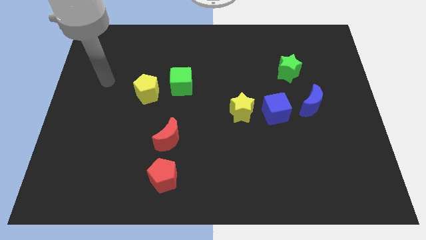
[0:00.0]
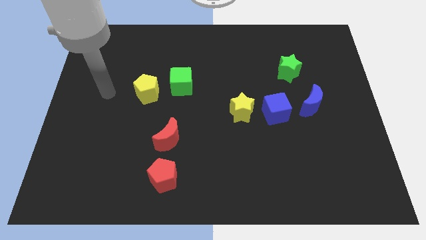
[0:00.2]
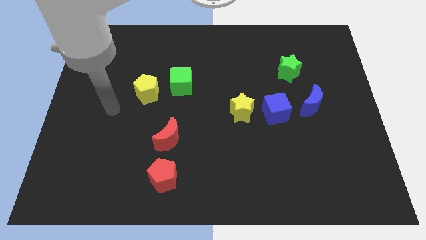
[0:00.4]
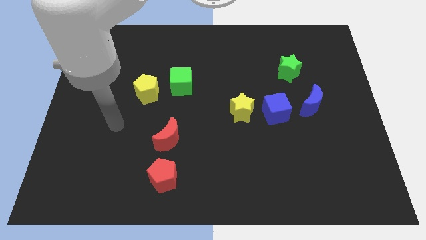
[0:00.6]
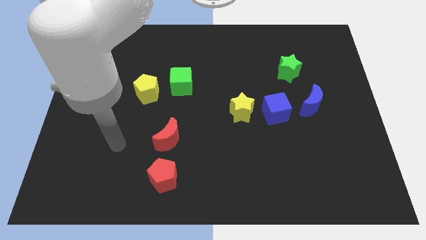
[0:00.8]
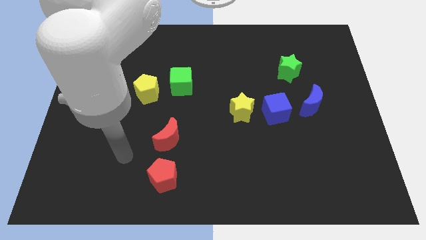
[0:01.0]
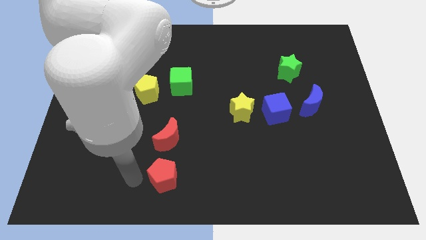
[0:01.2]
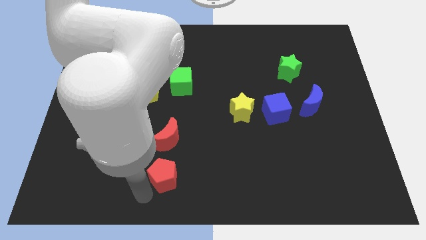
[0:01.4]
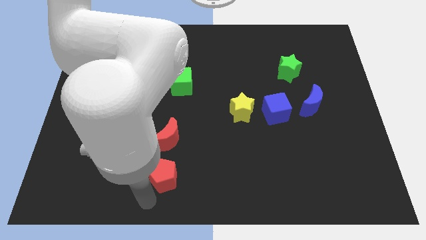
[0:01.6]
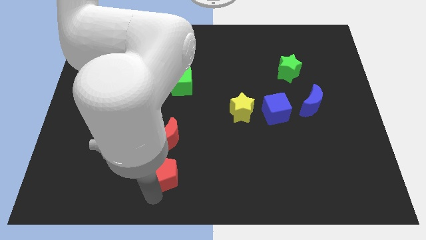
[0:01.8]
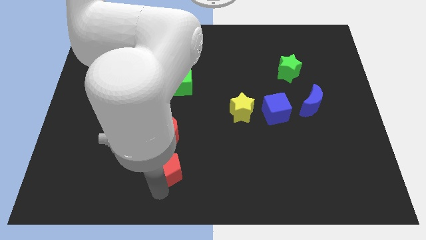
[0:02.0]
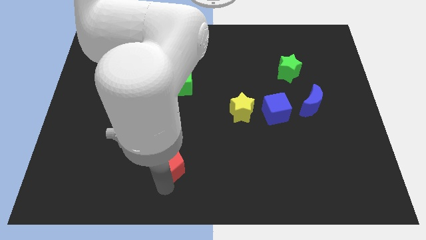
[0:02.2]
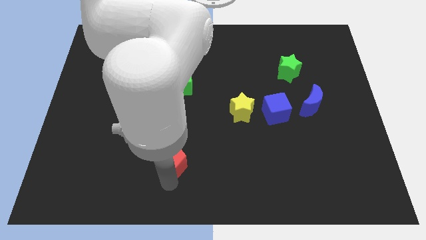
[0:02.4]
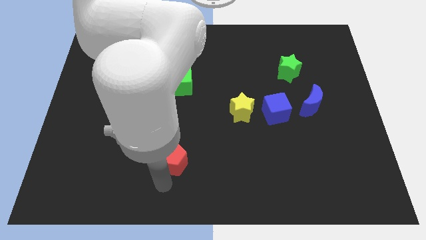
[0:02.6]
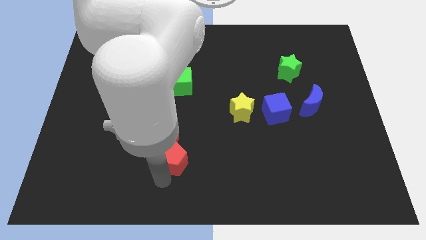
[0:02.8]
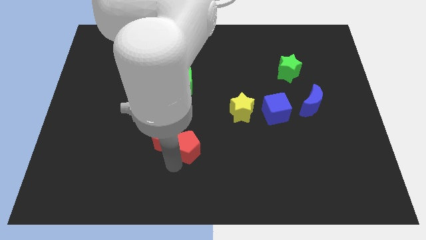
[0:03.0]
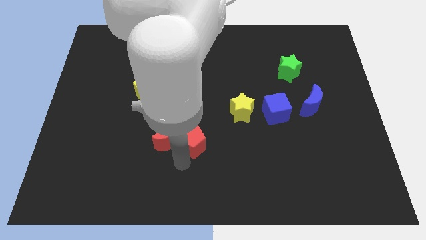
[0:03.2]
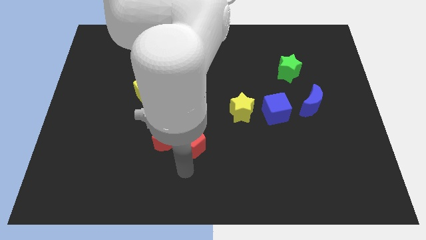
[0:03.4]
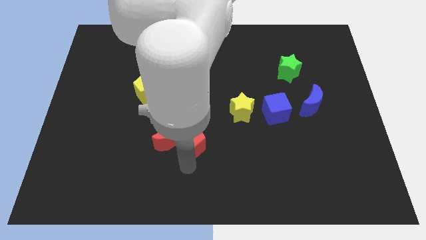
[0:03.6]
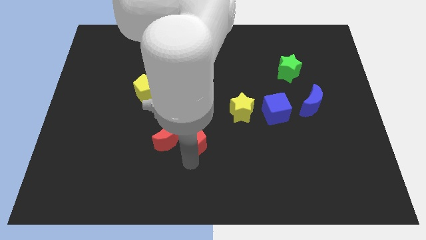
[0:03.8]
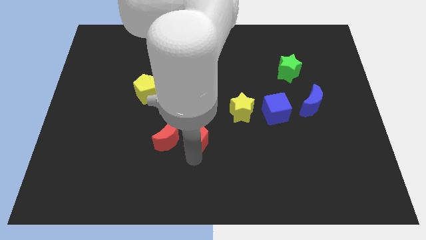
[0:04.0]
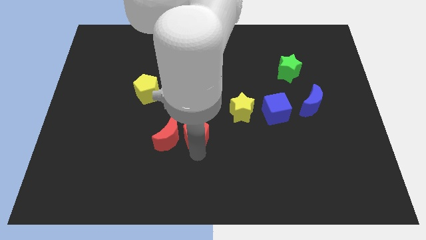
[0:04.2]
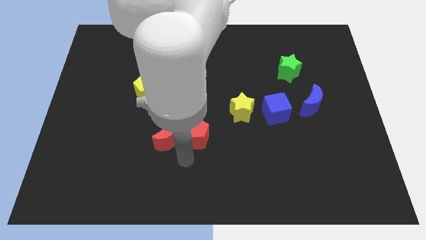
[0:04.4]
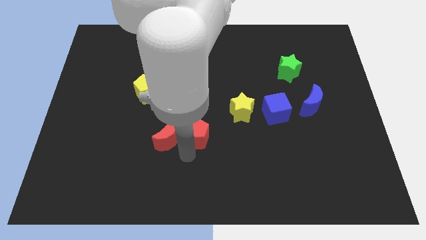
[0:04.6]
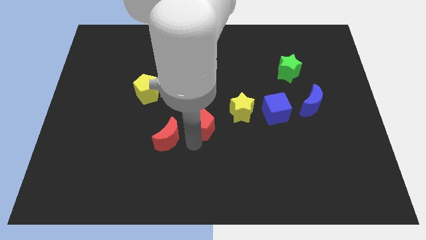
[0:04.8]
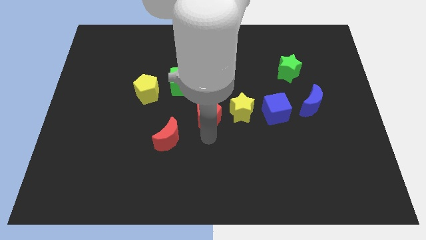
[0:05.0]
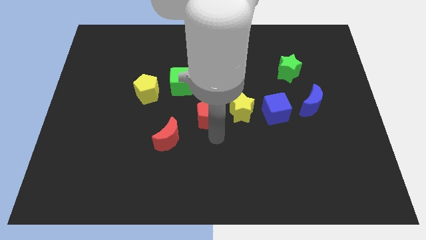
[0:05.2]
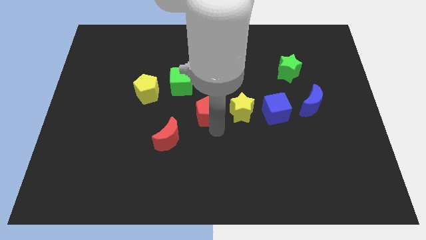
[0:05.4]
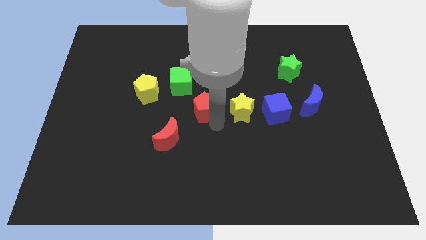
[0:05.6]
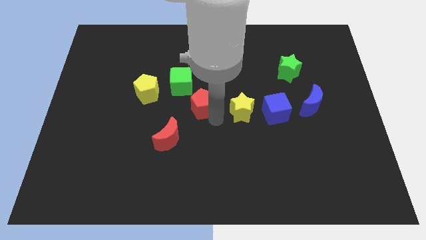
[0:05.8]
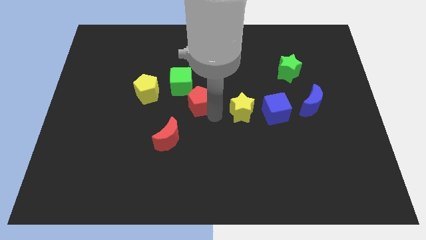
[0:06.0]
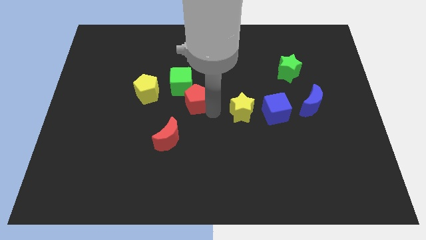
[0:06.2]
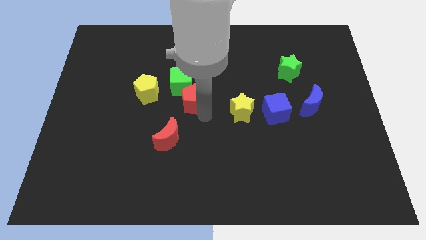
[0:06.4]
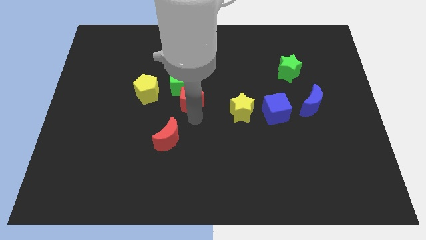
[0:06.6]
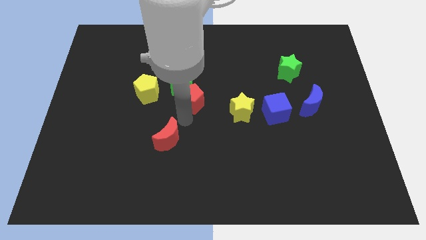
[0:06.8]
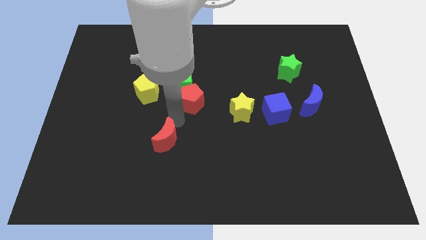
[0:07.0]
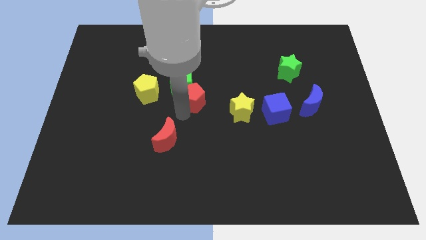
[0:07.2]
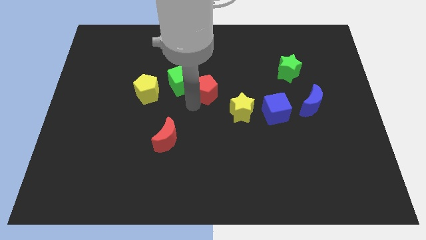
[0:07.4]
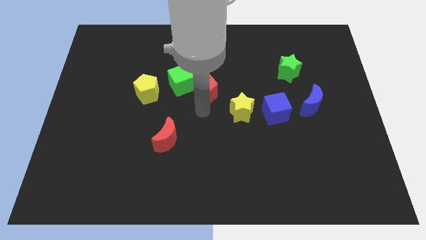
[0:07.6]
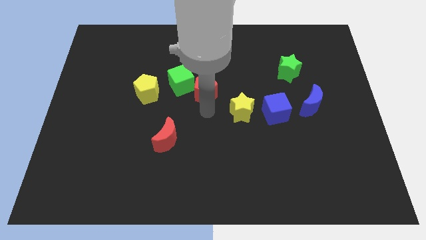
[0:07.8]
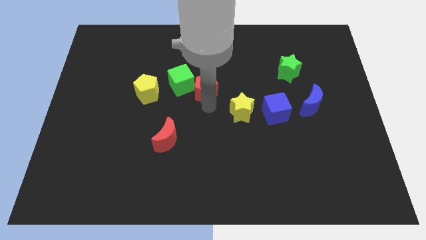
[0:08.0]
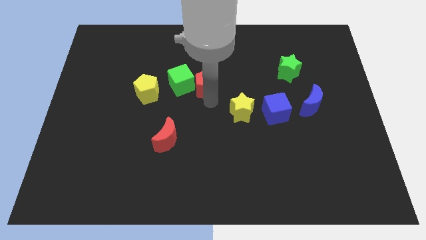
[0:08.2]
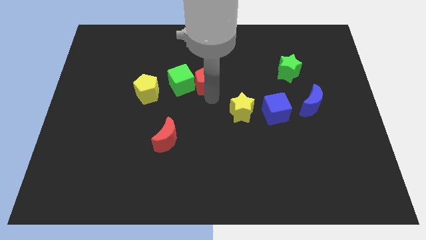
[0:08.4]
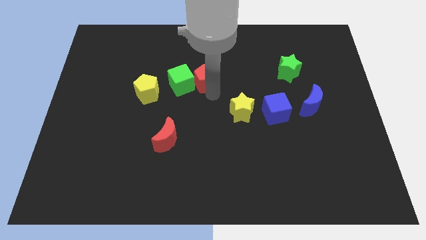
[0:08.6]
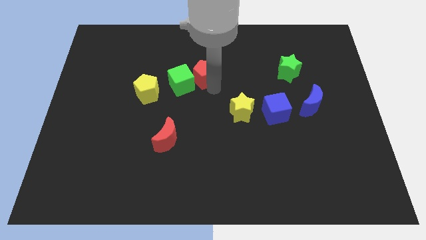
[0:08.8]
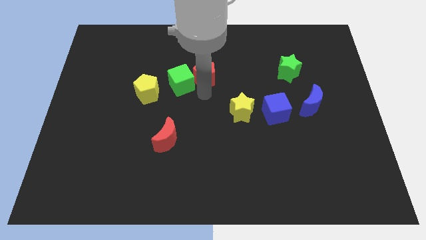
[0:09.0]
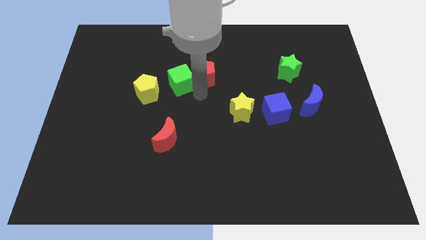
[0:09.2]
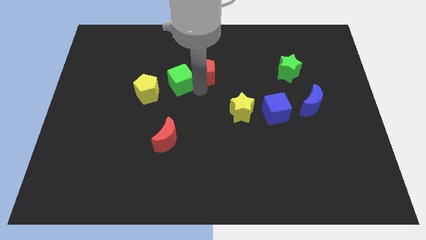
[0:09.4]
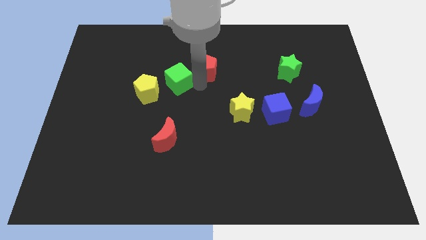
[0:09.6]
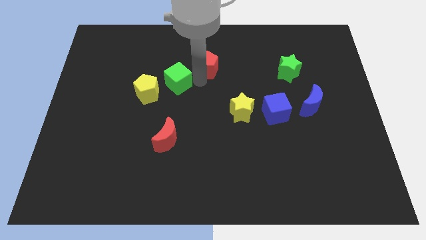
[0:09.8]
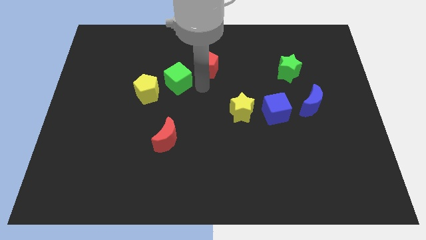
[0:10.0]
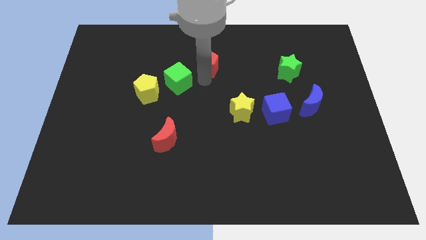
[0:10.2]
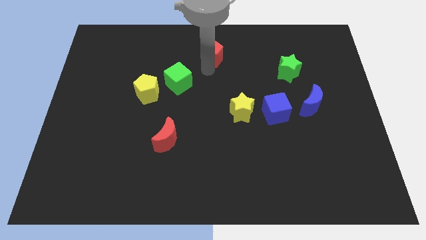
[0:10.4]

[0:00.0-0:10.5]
slide the red pentagon to the top side

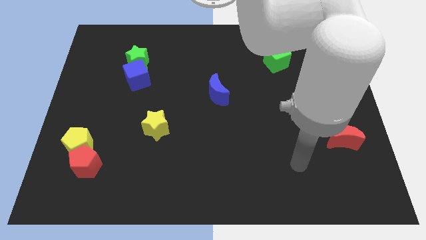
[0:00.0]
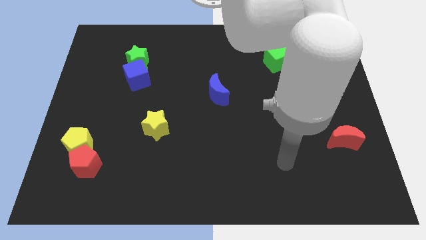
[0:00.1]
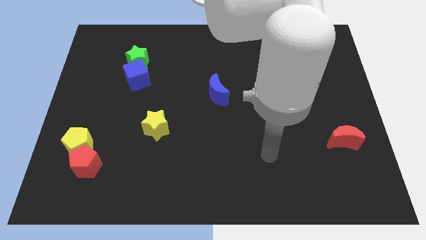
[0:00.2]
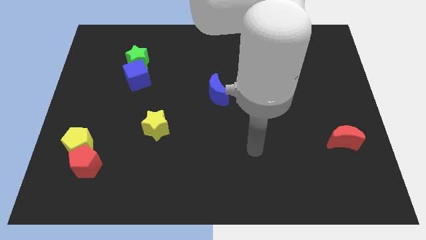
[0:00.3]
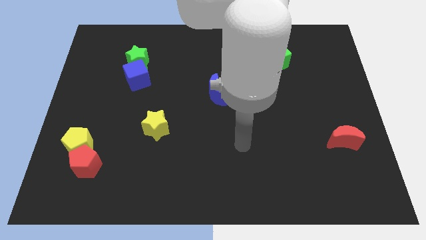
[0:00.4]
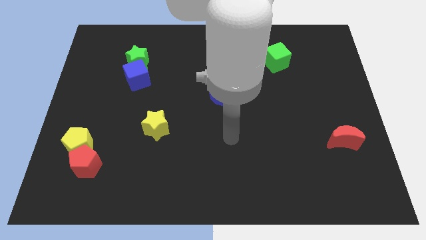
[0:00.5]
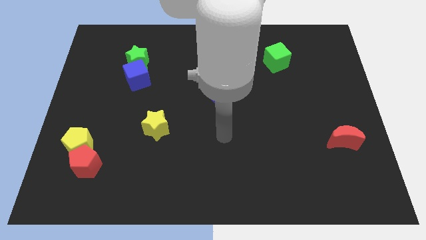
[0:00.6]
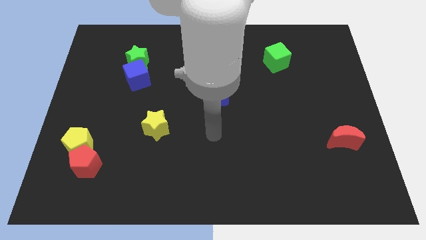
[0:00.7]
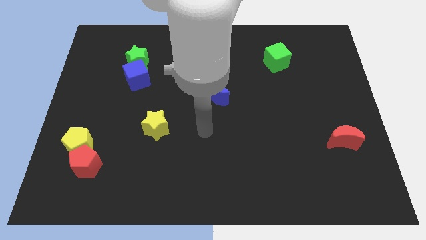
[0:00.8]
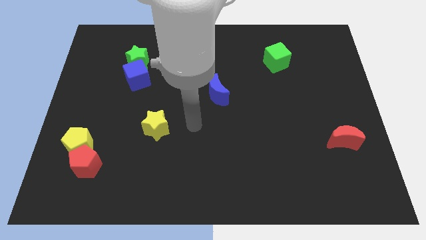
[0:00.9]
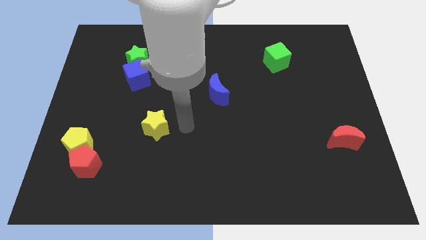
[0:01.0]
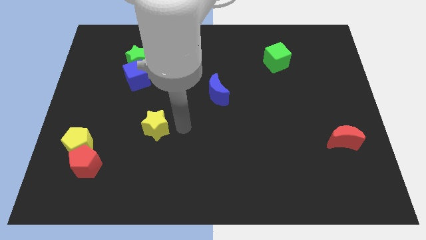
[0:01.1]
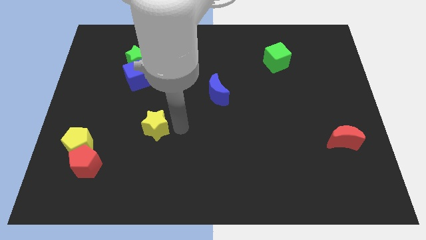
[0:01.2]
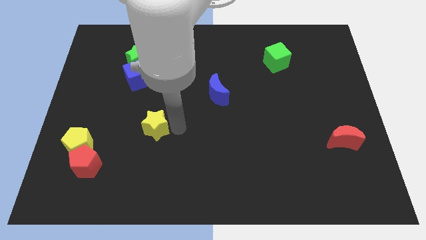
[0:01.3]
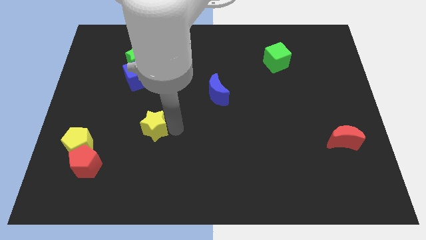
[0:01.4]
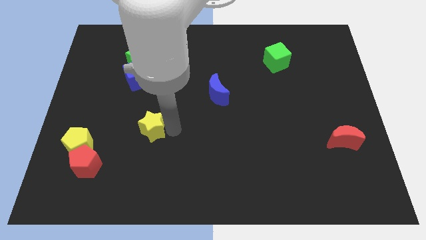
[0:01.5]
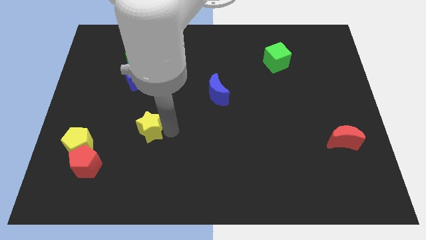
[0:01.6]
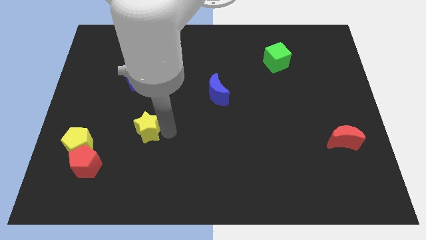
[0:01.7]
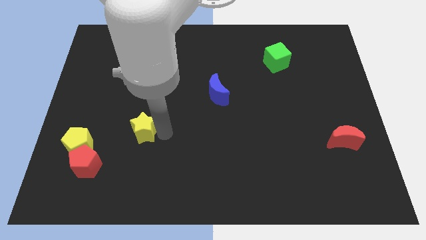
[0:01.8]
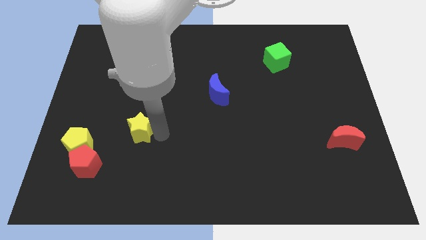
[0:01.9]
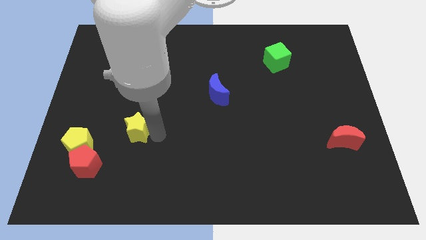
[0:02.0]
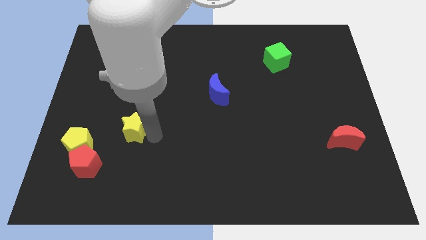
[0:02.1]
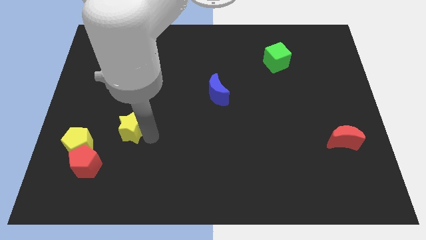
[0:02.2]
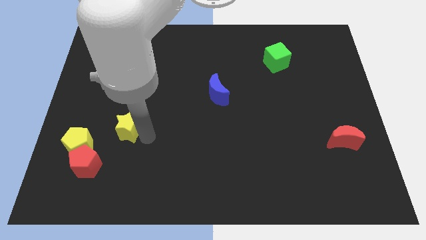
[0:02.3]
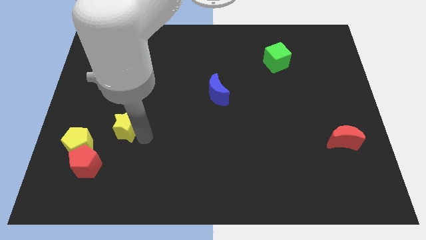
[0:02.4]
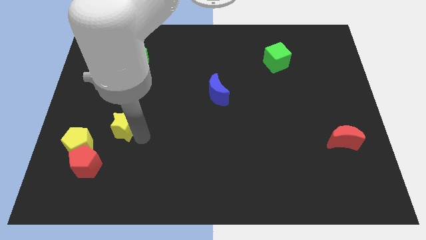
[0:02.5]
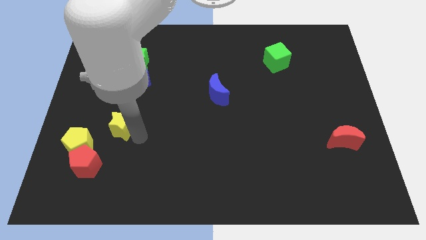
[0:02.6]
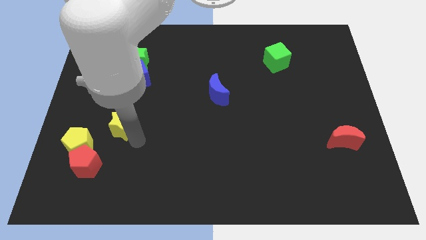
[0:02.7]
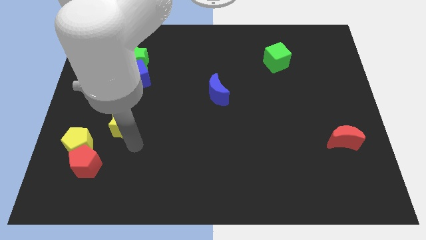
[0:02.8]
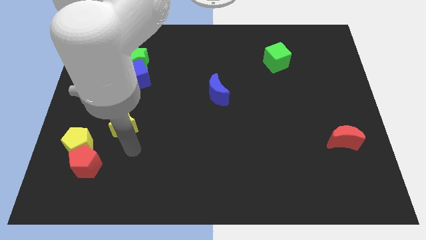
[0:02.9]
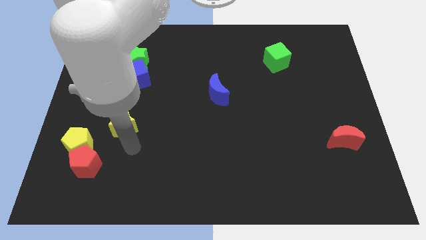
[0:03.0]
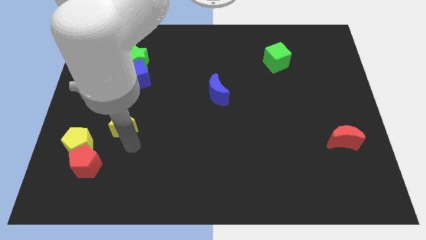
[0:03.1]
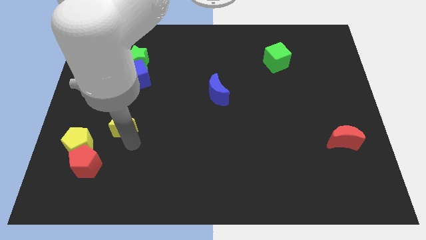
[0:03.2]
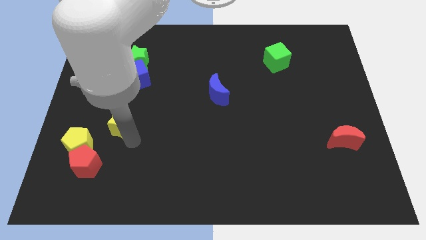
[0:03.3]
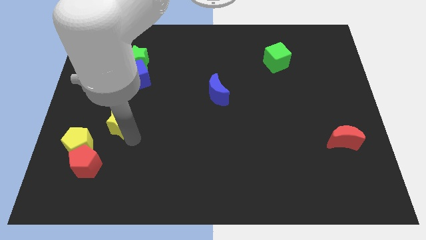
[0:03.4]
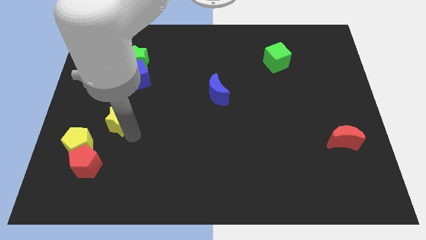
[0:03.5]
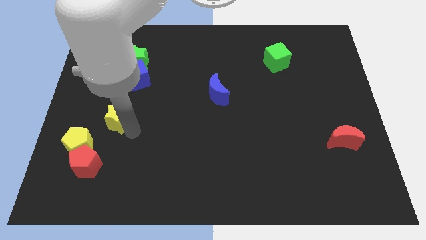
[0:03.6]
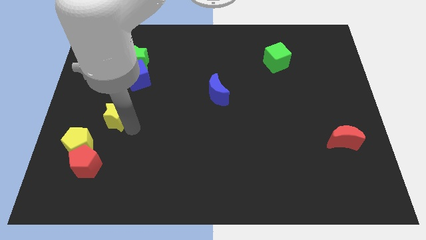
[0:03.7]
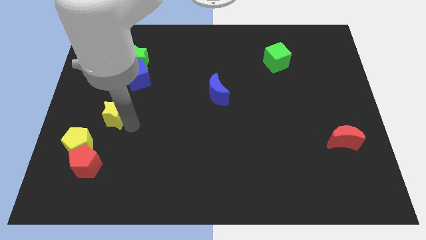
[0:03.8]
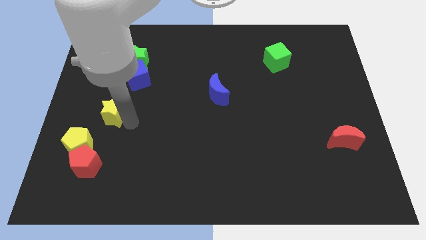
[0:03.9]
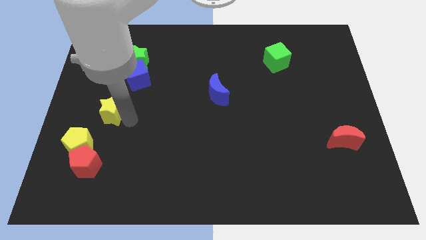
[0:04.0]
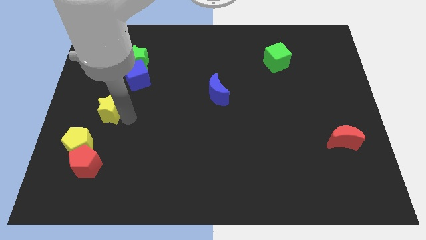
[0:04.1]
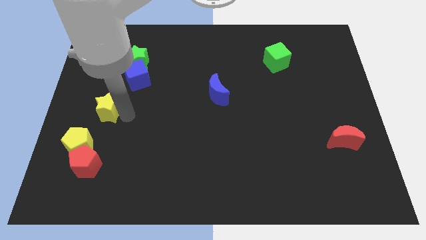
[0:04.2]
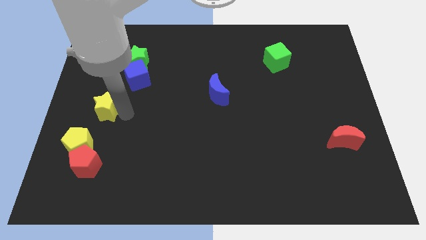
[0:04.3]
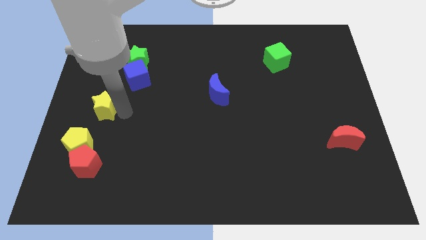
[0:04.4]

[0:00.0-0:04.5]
push the yellow star to the center left
